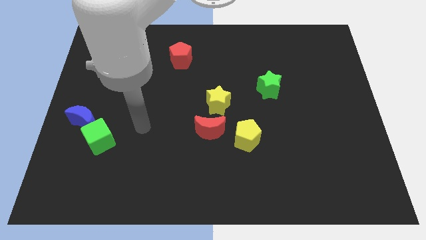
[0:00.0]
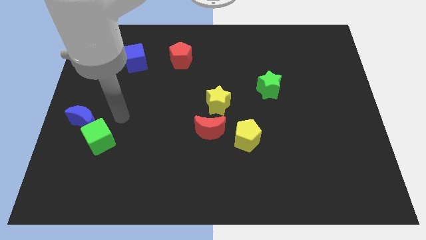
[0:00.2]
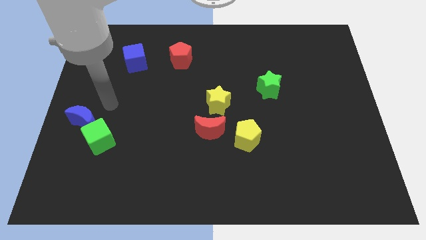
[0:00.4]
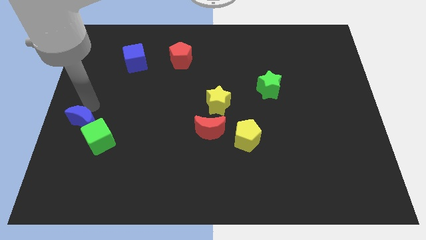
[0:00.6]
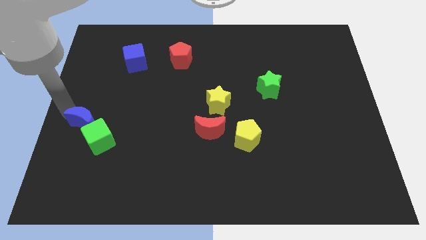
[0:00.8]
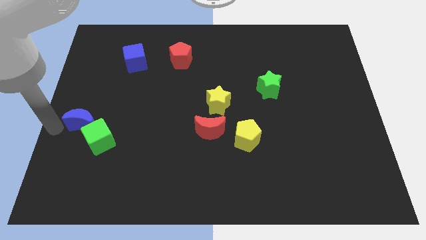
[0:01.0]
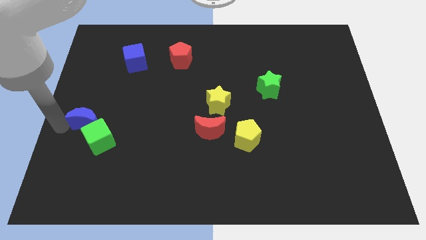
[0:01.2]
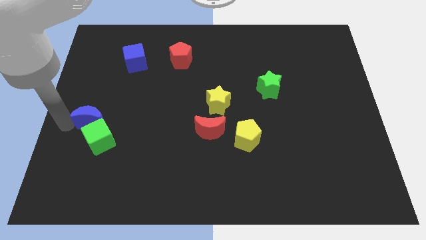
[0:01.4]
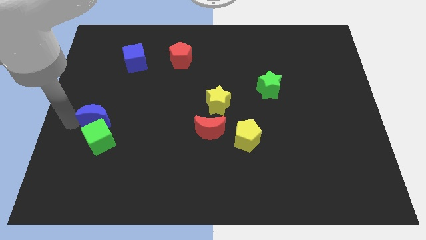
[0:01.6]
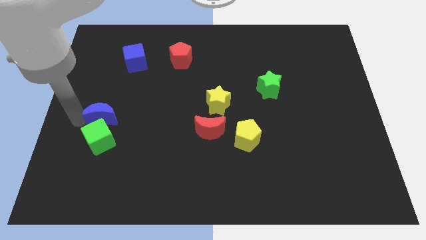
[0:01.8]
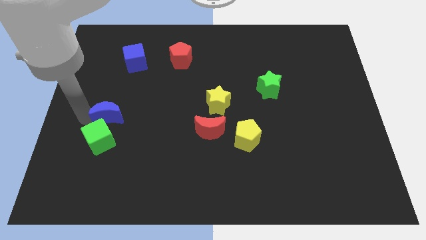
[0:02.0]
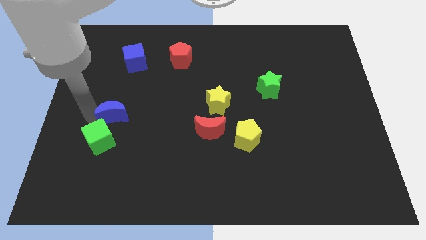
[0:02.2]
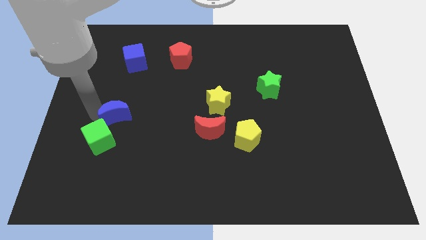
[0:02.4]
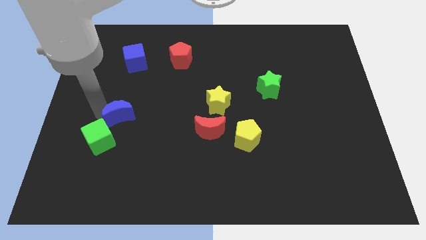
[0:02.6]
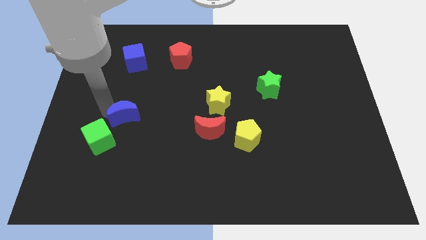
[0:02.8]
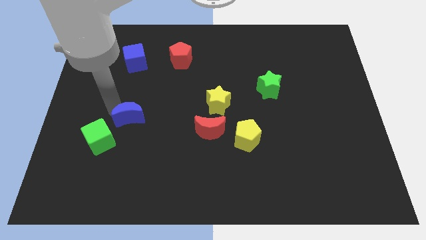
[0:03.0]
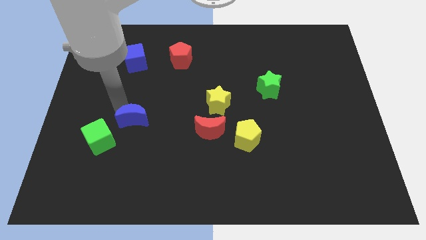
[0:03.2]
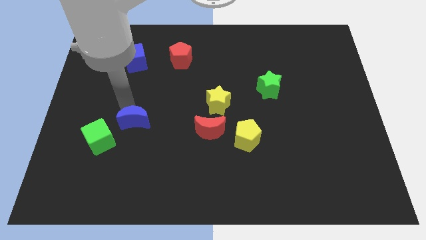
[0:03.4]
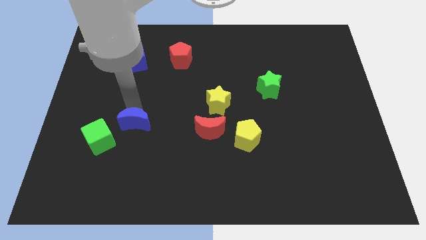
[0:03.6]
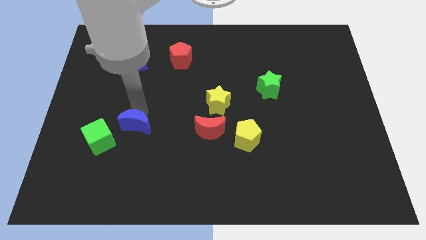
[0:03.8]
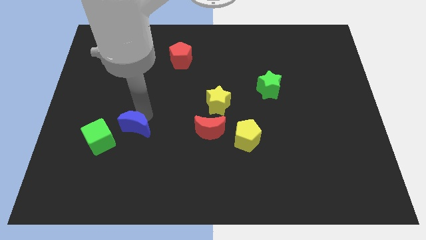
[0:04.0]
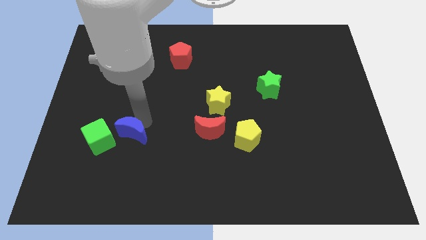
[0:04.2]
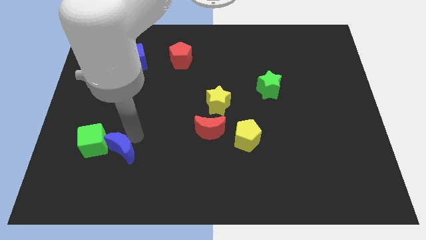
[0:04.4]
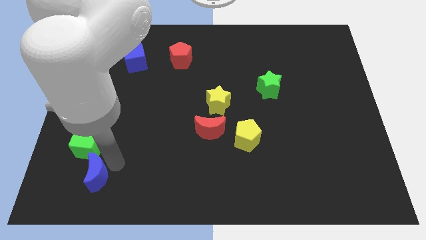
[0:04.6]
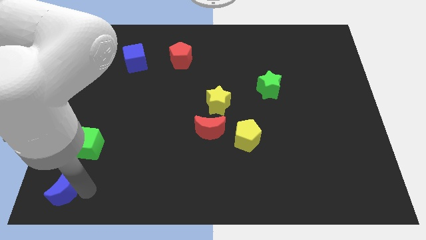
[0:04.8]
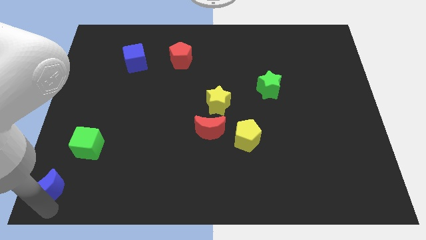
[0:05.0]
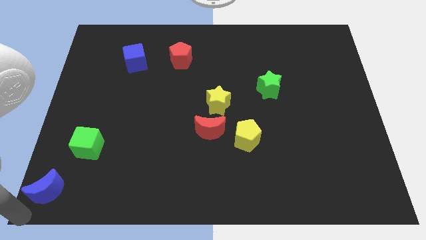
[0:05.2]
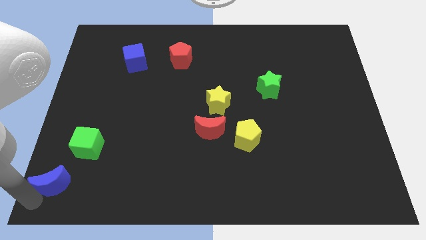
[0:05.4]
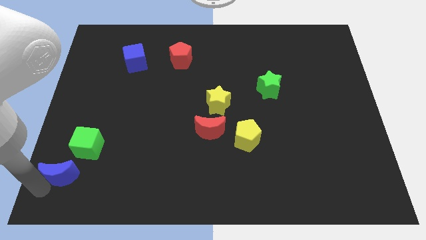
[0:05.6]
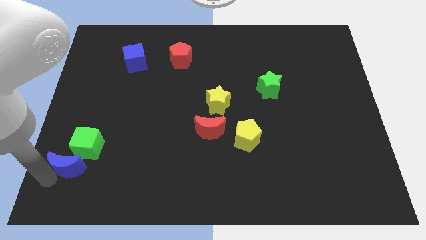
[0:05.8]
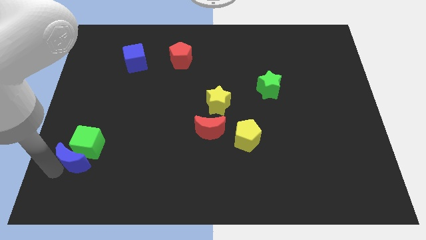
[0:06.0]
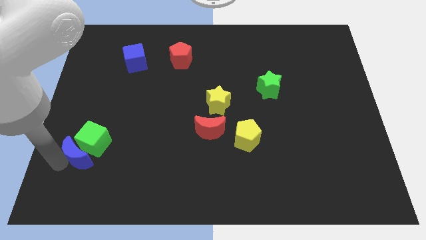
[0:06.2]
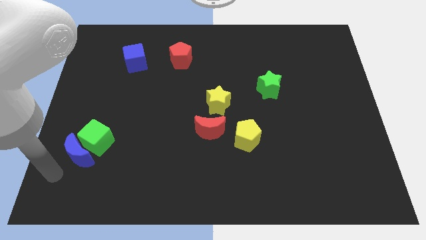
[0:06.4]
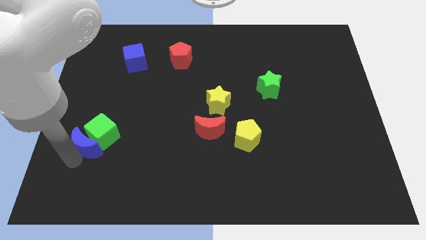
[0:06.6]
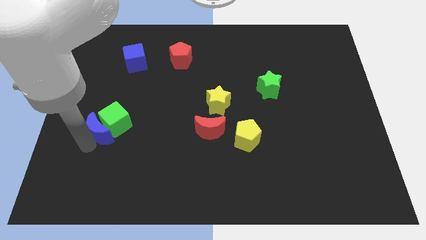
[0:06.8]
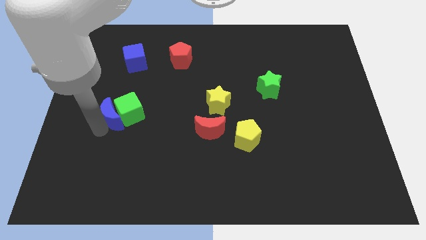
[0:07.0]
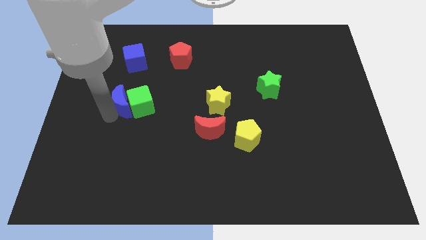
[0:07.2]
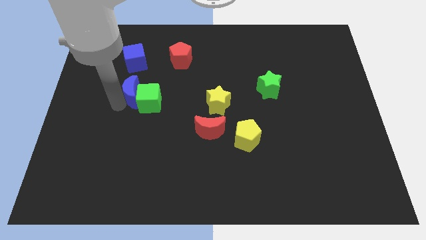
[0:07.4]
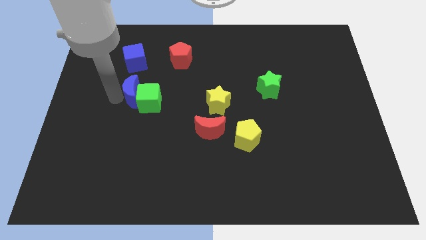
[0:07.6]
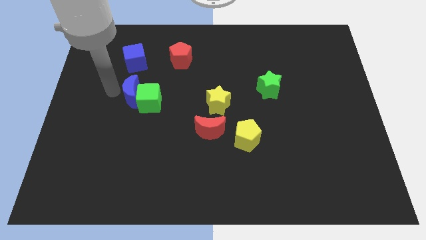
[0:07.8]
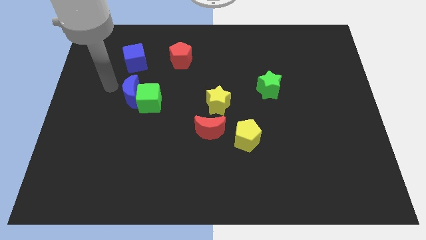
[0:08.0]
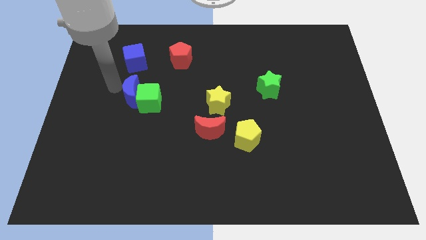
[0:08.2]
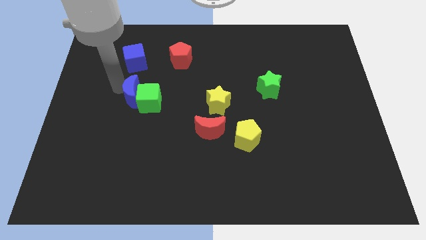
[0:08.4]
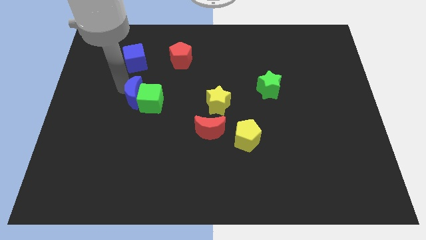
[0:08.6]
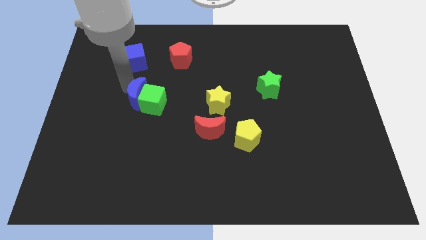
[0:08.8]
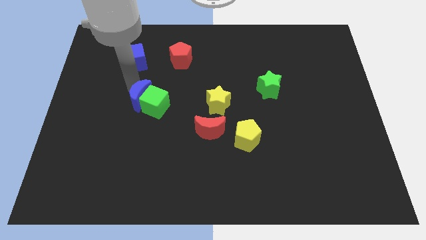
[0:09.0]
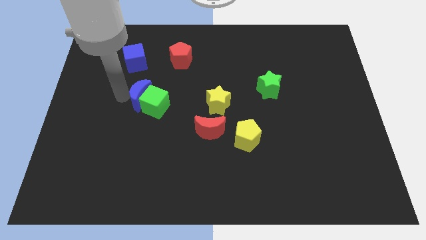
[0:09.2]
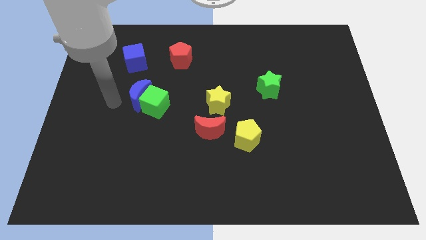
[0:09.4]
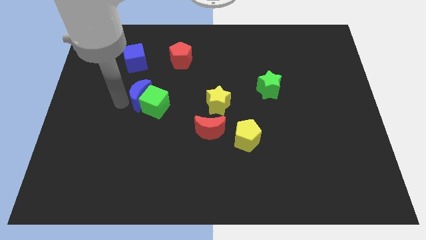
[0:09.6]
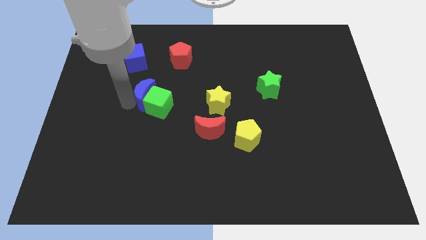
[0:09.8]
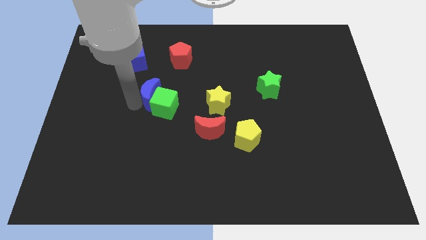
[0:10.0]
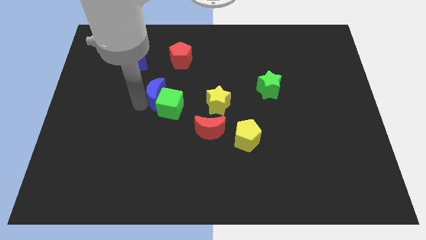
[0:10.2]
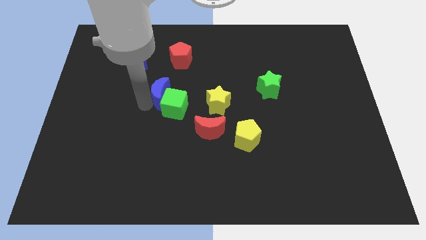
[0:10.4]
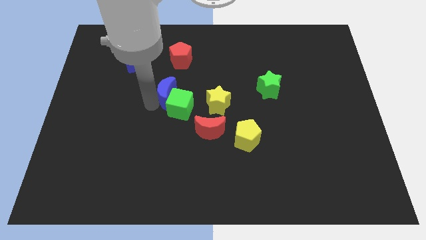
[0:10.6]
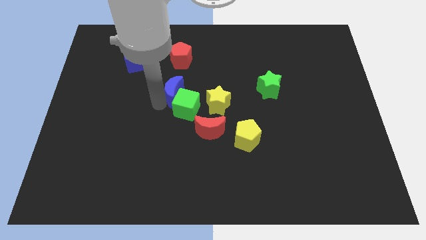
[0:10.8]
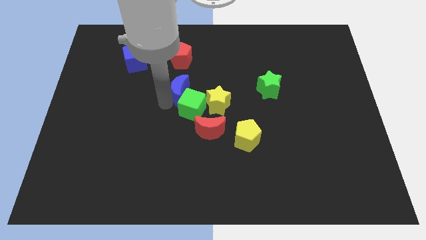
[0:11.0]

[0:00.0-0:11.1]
put the blue moon to the top left side of the yellow star

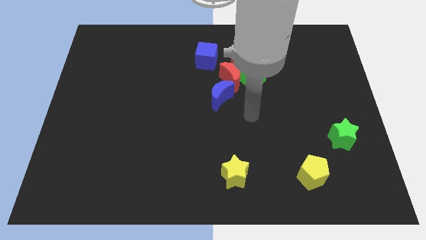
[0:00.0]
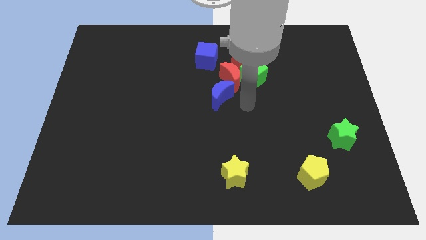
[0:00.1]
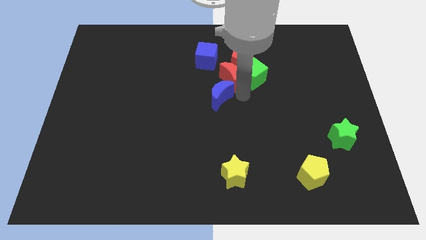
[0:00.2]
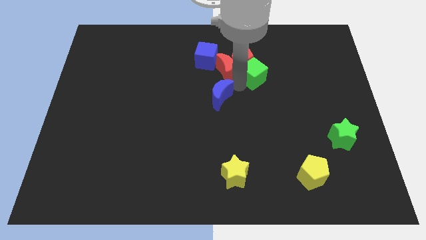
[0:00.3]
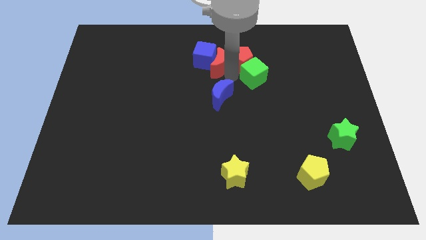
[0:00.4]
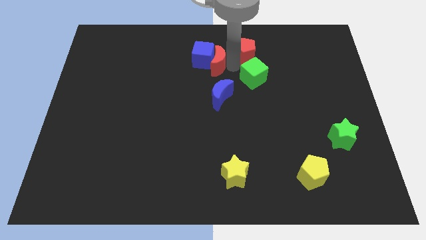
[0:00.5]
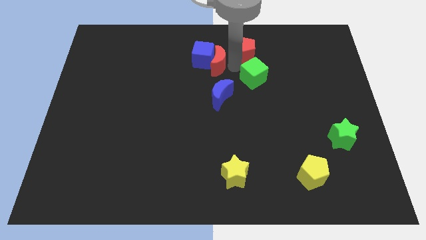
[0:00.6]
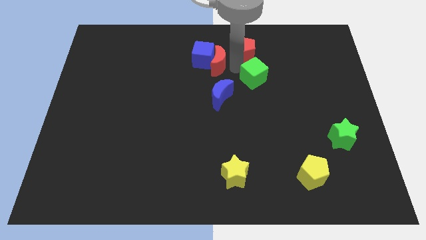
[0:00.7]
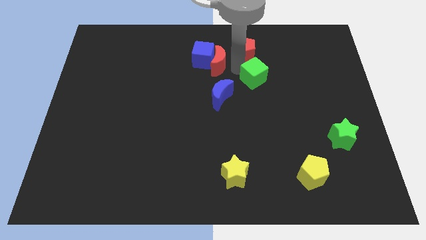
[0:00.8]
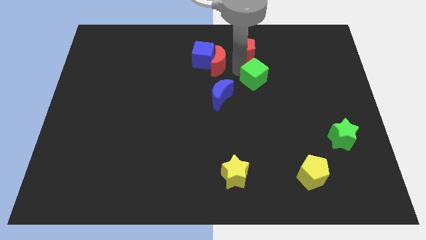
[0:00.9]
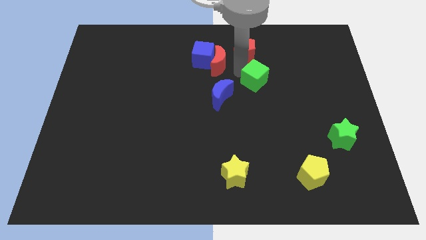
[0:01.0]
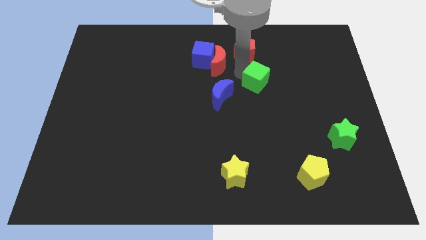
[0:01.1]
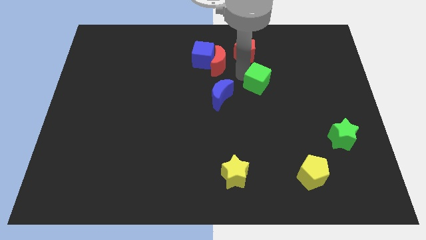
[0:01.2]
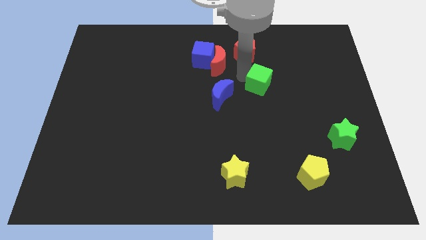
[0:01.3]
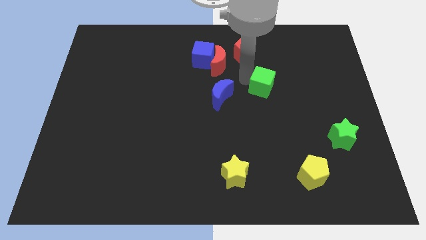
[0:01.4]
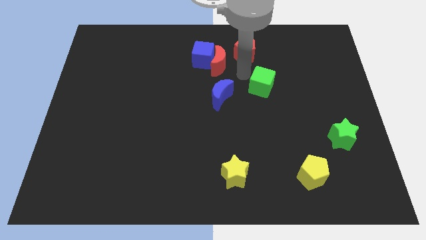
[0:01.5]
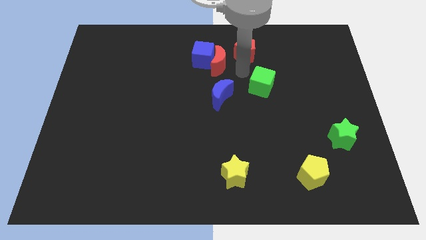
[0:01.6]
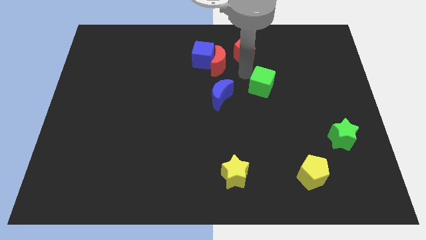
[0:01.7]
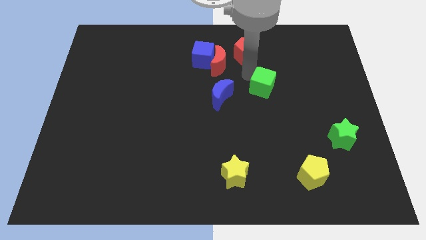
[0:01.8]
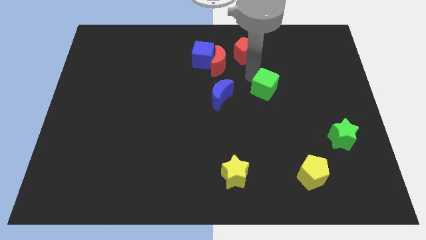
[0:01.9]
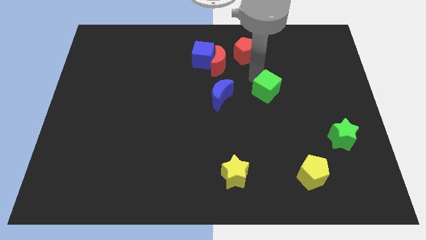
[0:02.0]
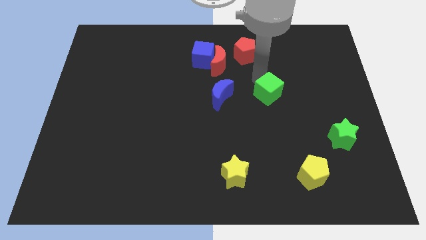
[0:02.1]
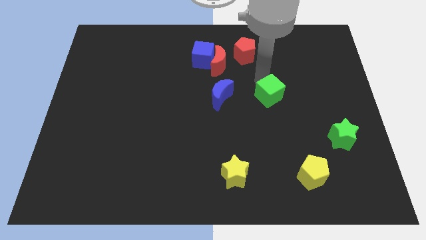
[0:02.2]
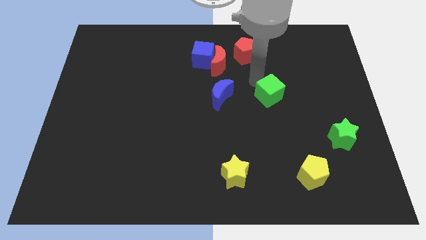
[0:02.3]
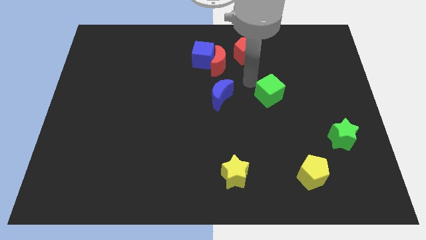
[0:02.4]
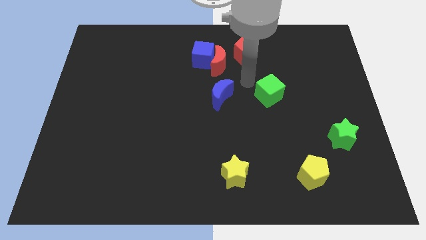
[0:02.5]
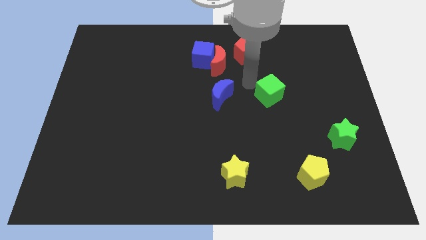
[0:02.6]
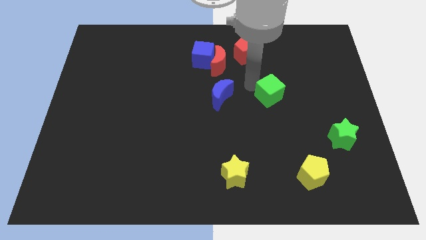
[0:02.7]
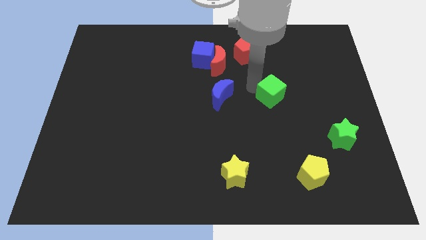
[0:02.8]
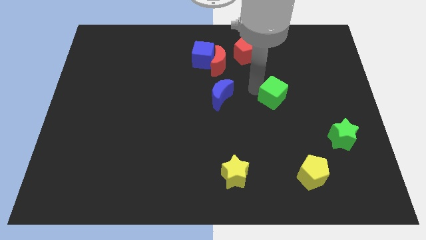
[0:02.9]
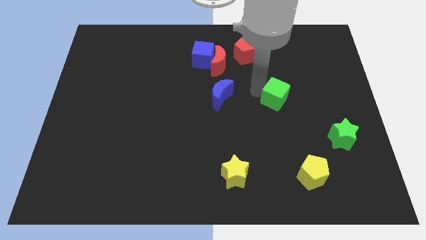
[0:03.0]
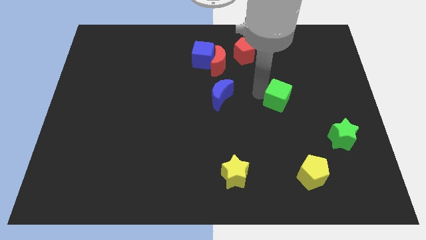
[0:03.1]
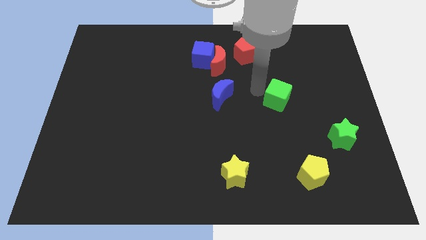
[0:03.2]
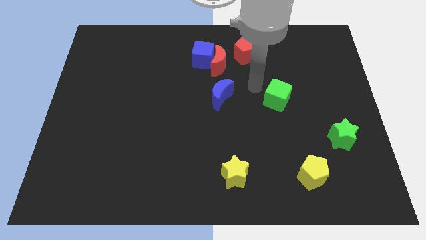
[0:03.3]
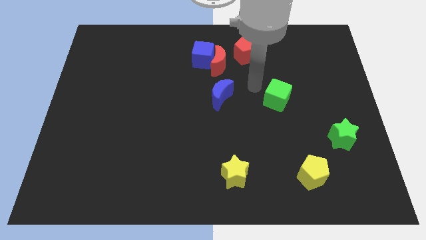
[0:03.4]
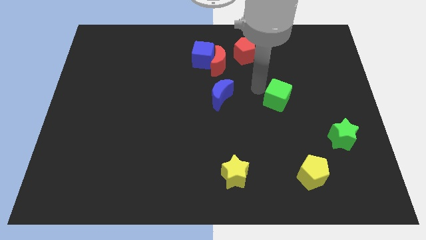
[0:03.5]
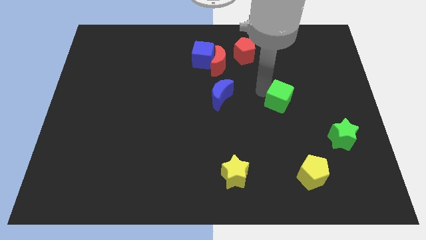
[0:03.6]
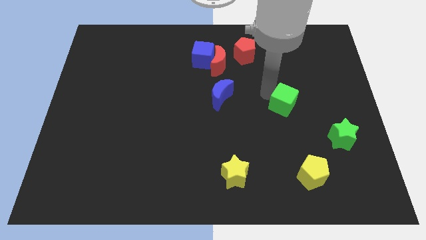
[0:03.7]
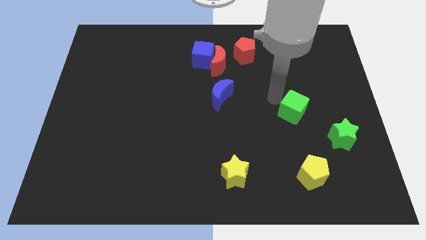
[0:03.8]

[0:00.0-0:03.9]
move the green cube diagonally up and to the left of the green star
